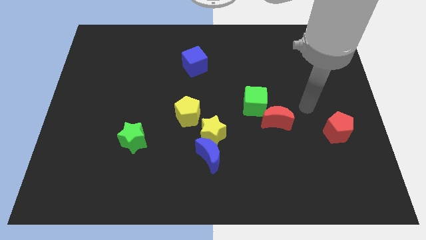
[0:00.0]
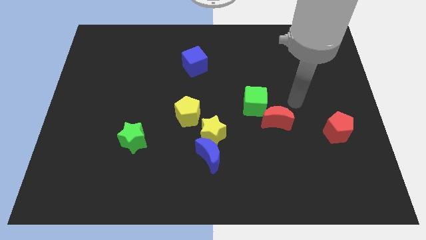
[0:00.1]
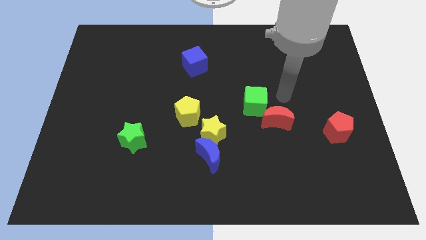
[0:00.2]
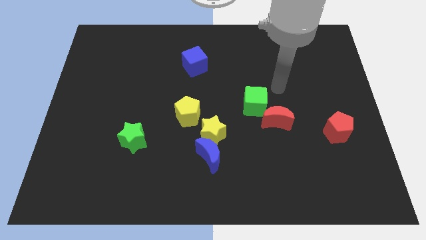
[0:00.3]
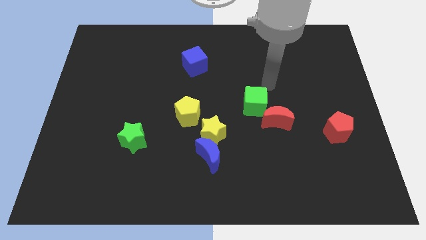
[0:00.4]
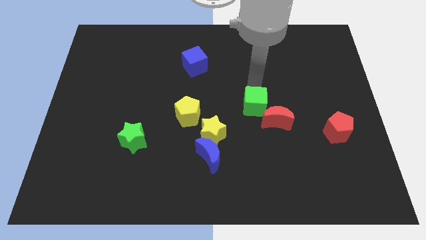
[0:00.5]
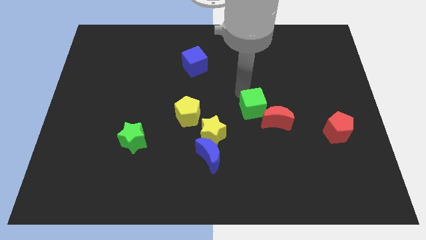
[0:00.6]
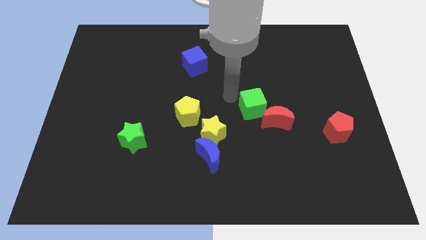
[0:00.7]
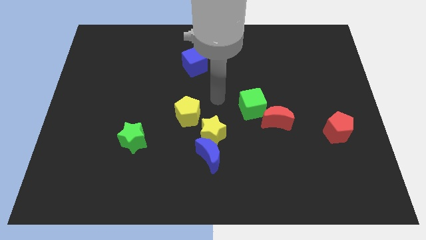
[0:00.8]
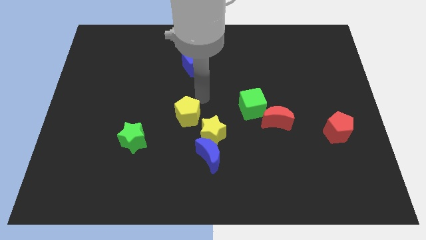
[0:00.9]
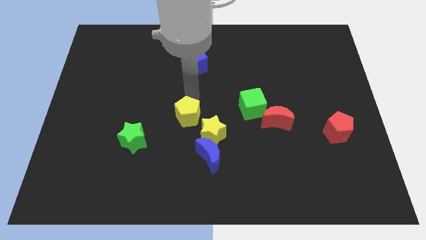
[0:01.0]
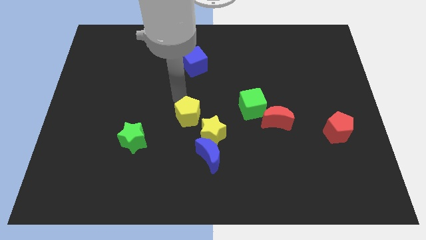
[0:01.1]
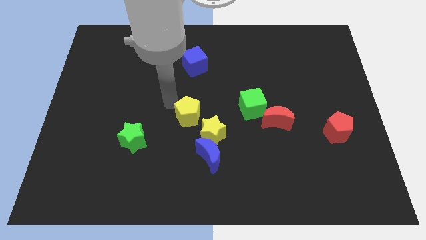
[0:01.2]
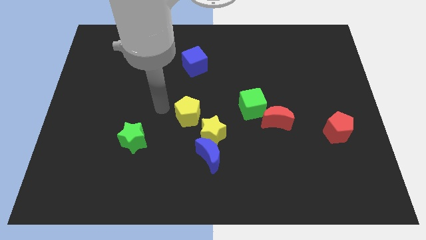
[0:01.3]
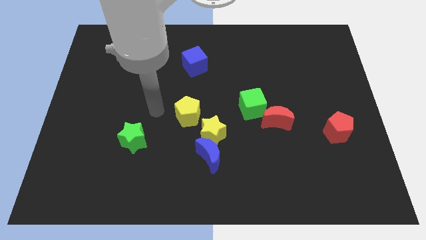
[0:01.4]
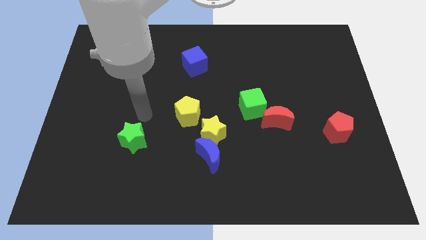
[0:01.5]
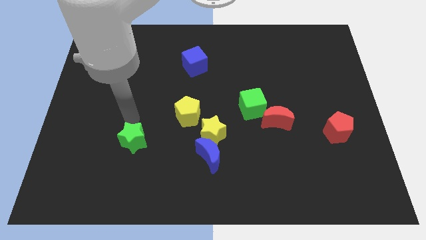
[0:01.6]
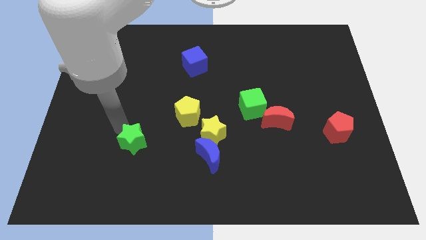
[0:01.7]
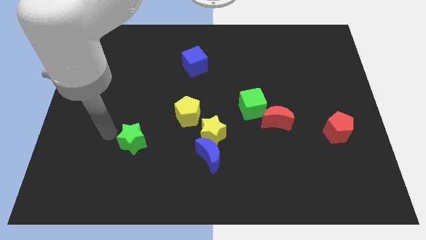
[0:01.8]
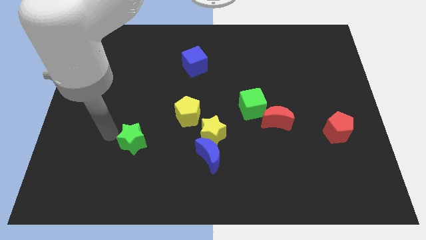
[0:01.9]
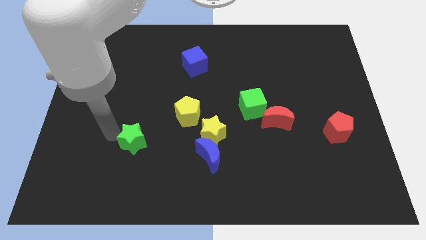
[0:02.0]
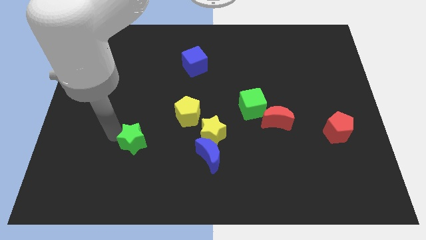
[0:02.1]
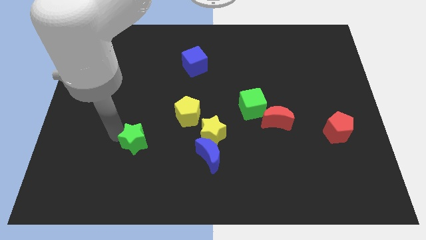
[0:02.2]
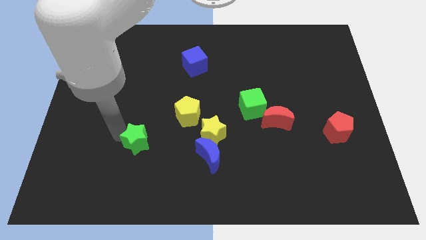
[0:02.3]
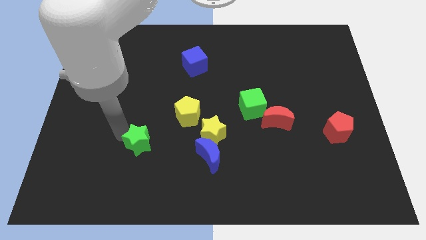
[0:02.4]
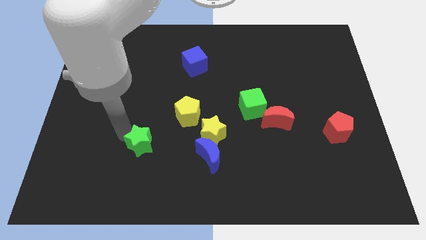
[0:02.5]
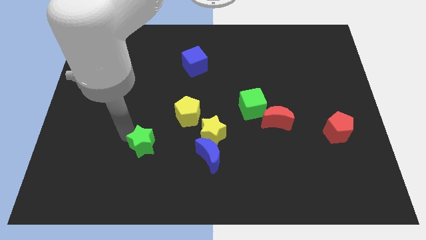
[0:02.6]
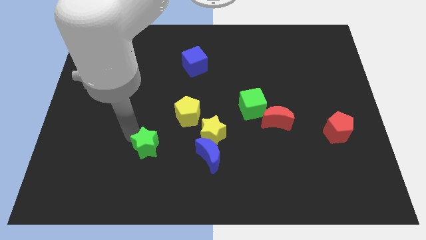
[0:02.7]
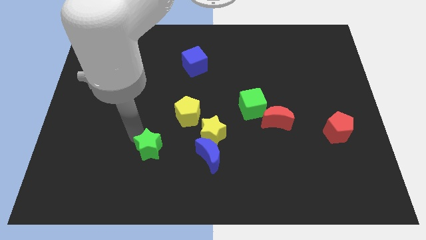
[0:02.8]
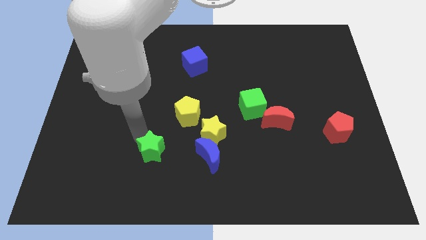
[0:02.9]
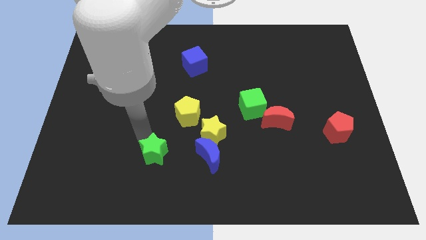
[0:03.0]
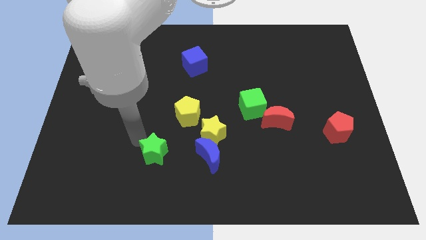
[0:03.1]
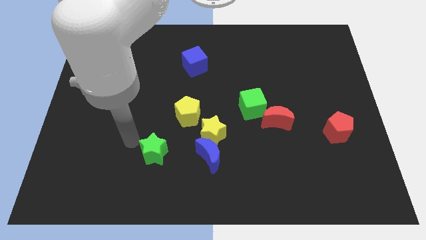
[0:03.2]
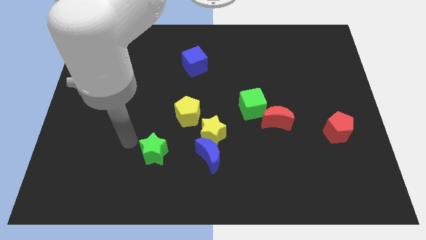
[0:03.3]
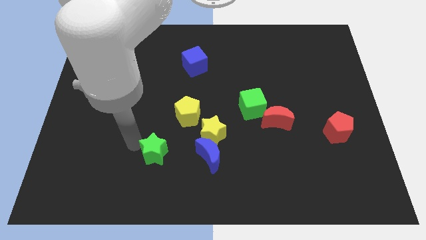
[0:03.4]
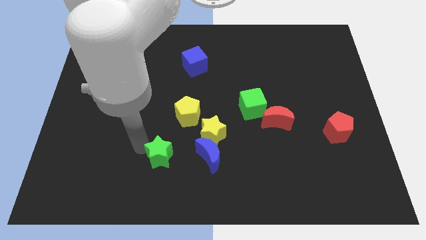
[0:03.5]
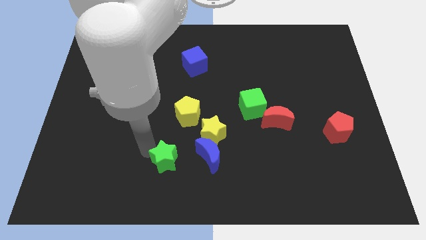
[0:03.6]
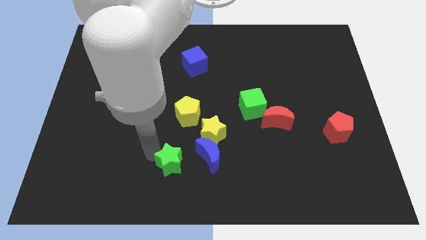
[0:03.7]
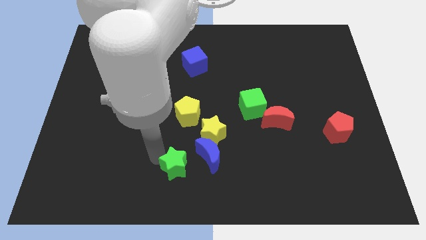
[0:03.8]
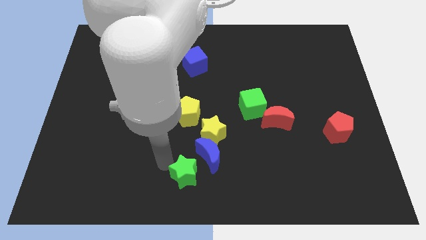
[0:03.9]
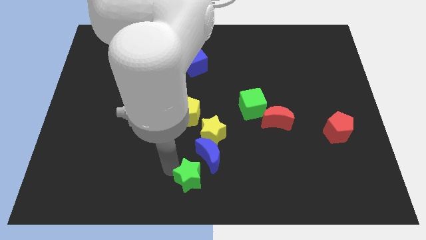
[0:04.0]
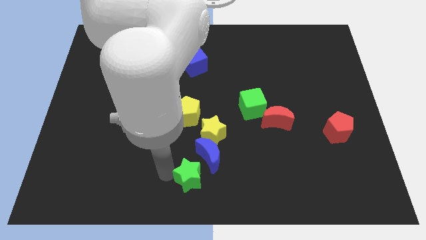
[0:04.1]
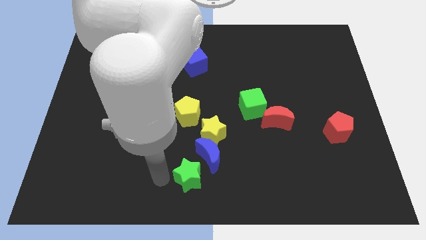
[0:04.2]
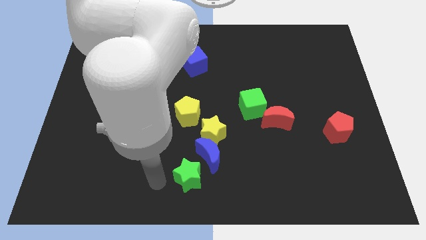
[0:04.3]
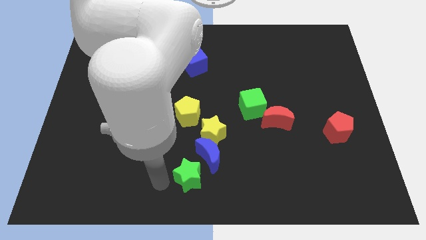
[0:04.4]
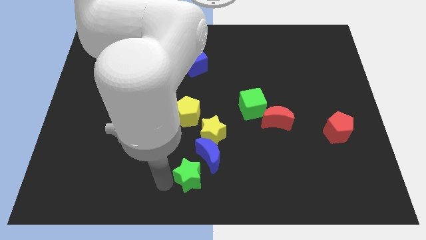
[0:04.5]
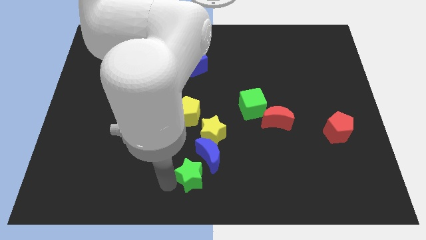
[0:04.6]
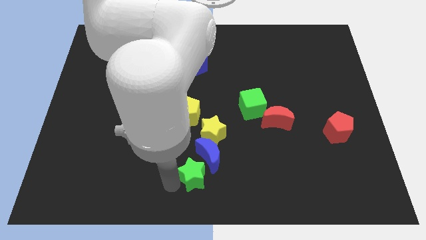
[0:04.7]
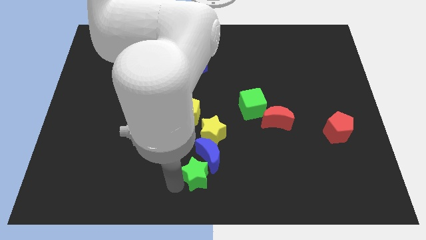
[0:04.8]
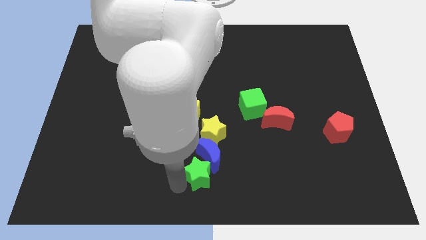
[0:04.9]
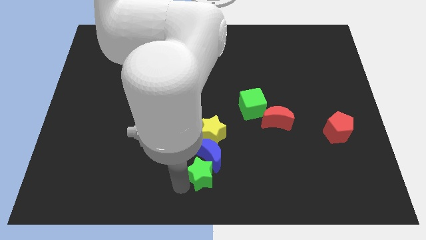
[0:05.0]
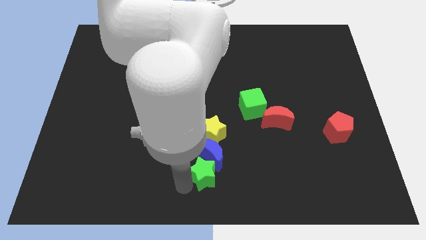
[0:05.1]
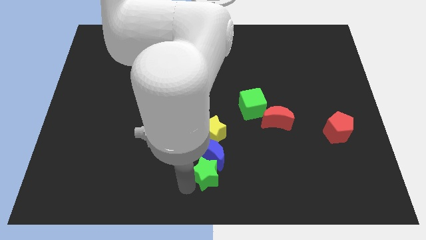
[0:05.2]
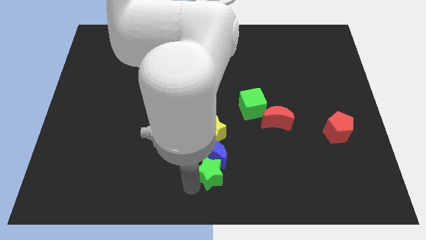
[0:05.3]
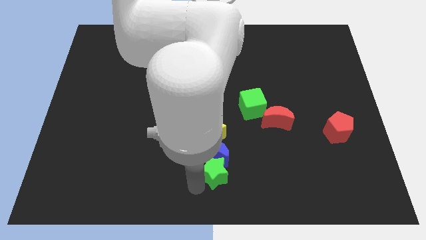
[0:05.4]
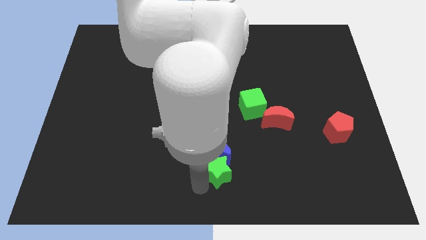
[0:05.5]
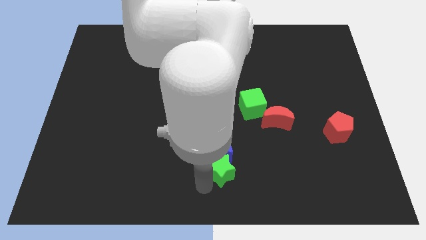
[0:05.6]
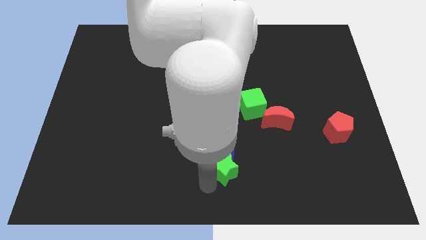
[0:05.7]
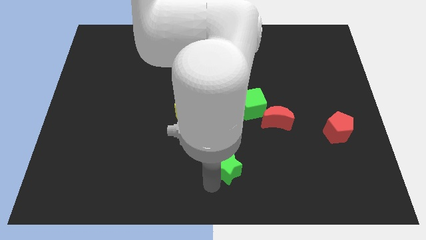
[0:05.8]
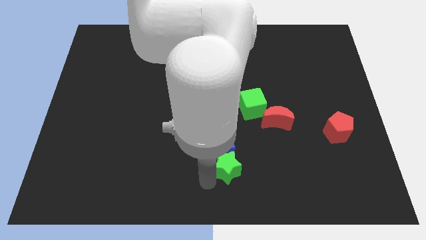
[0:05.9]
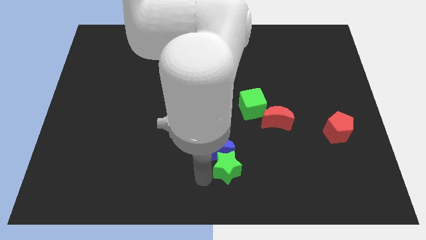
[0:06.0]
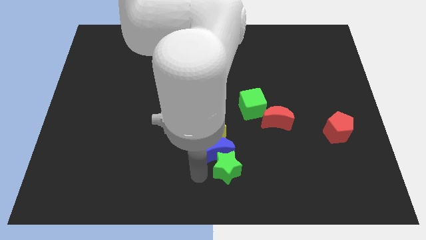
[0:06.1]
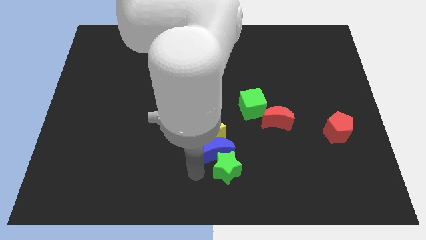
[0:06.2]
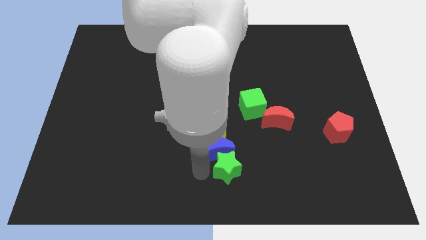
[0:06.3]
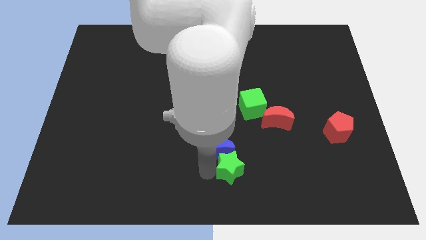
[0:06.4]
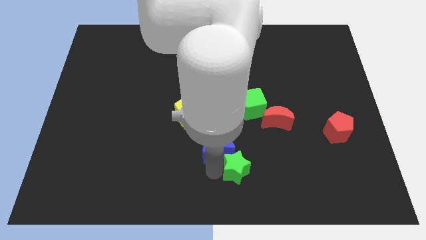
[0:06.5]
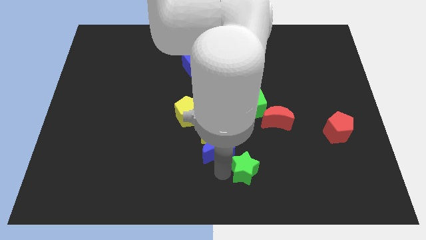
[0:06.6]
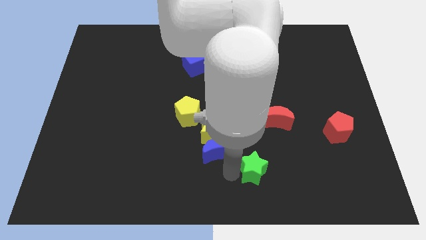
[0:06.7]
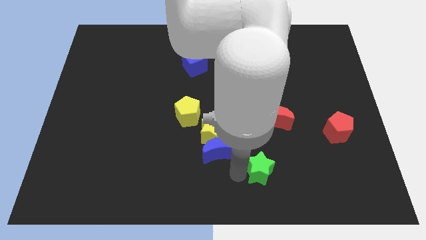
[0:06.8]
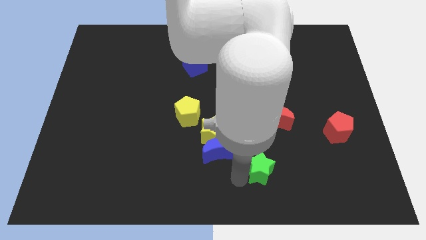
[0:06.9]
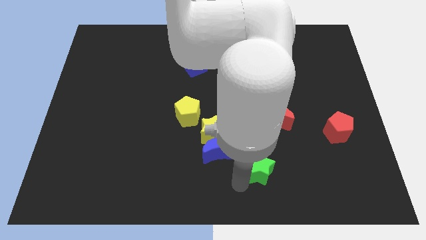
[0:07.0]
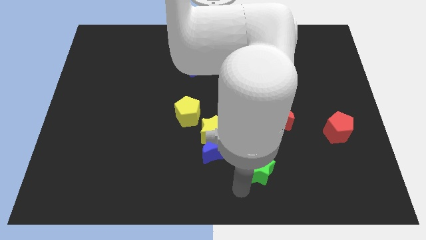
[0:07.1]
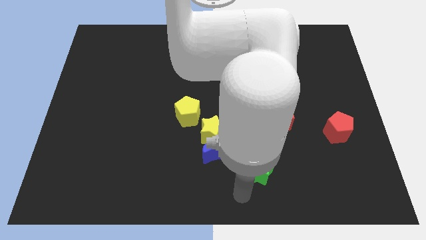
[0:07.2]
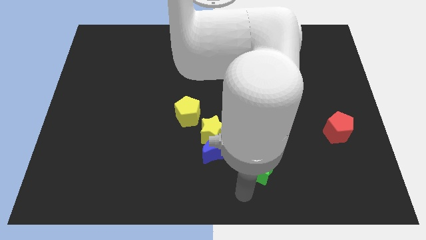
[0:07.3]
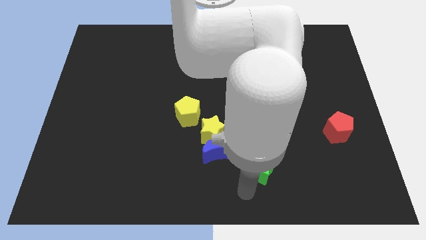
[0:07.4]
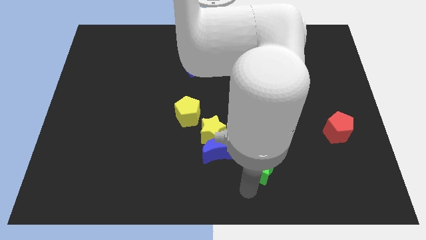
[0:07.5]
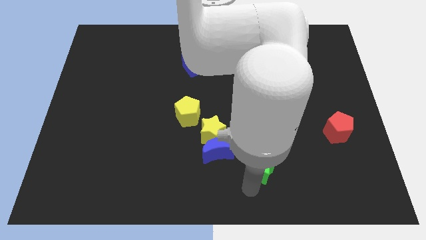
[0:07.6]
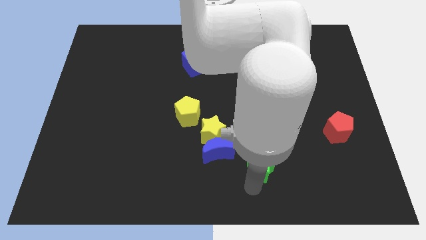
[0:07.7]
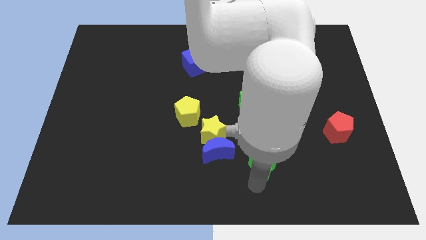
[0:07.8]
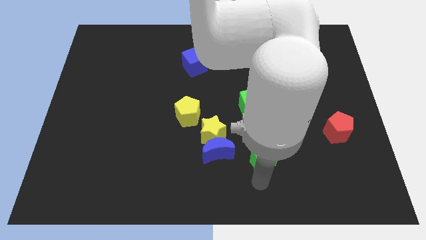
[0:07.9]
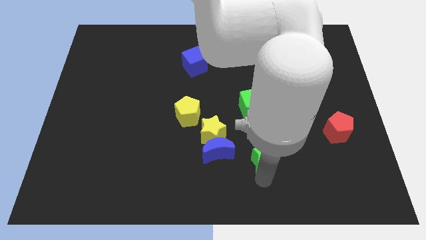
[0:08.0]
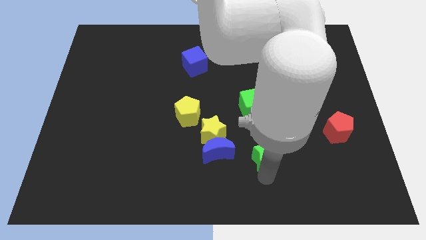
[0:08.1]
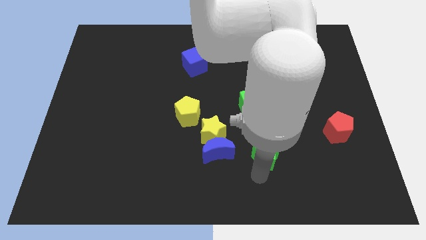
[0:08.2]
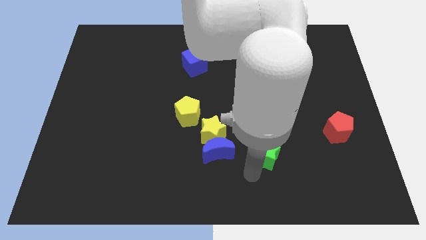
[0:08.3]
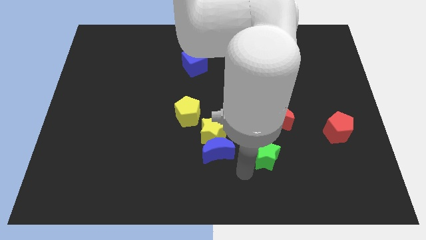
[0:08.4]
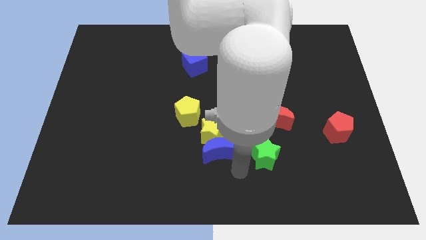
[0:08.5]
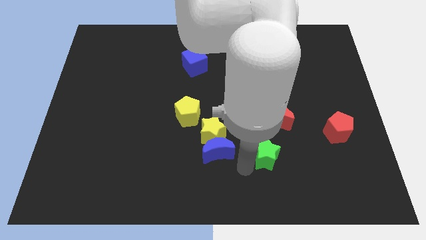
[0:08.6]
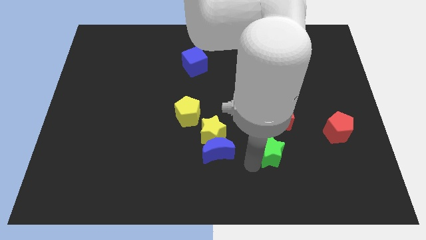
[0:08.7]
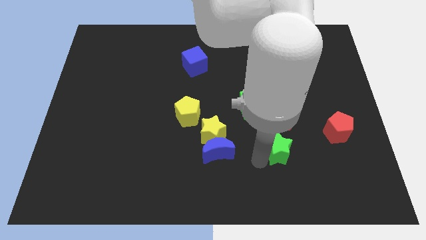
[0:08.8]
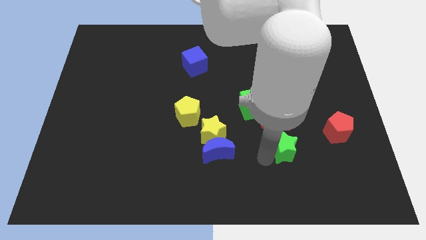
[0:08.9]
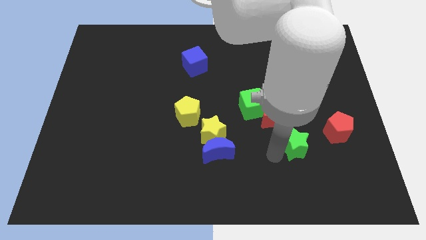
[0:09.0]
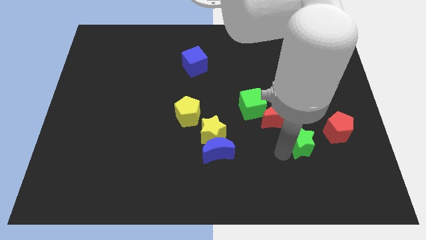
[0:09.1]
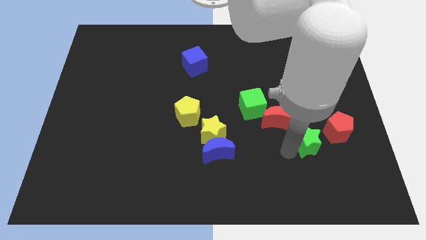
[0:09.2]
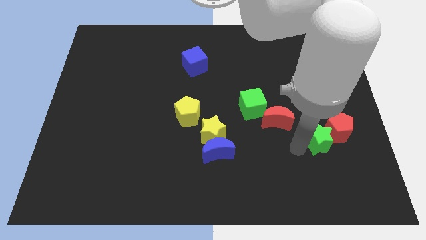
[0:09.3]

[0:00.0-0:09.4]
move the green star towards the red pentagon
